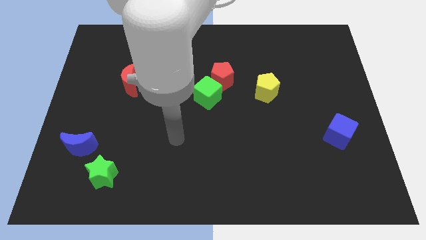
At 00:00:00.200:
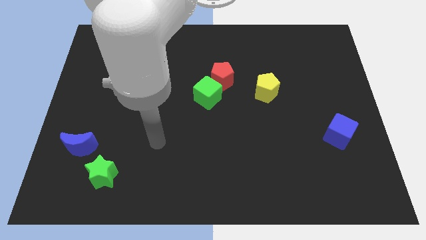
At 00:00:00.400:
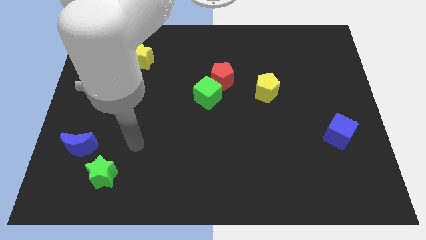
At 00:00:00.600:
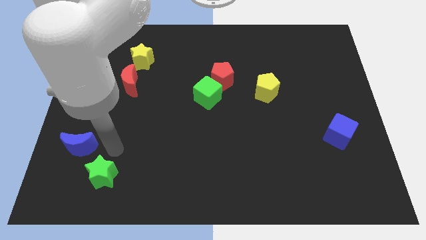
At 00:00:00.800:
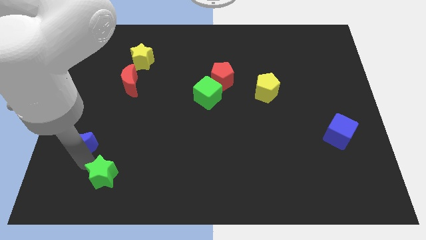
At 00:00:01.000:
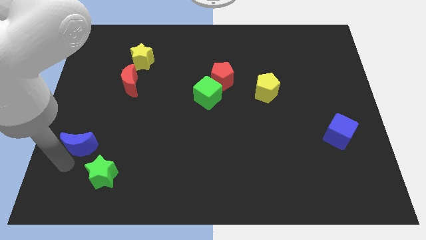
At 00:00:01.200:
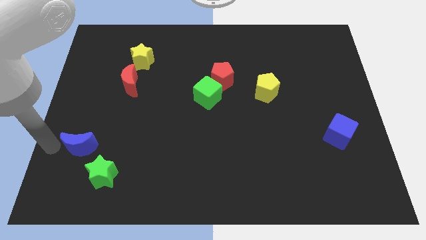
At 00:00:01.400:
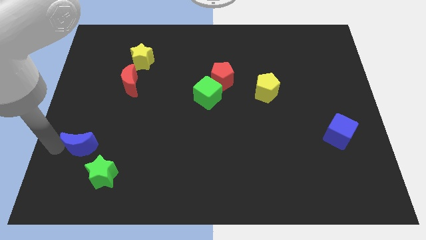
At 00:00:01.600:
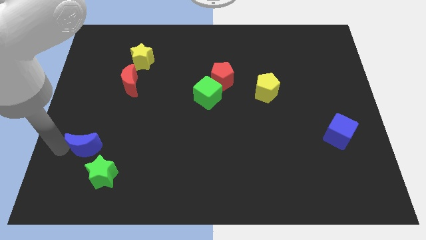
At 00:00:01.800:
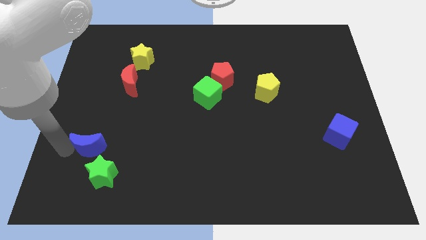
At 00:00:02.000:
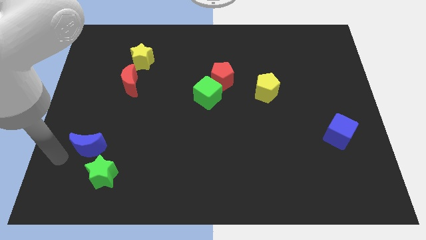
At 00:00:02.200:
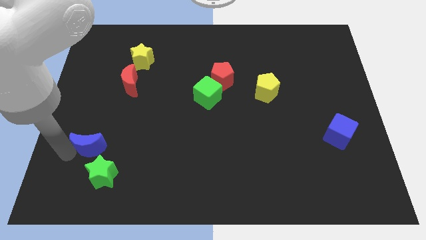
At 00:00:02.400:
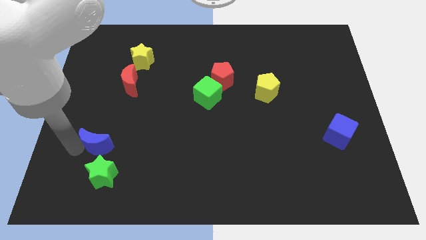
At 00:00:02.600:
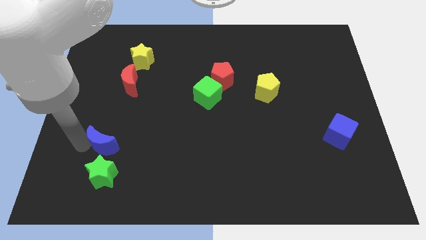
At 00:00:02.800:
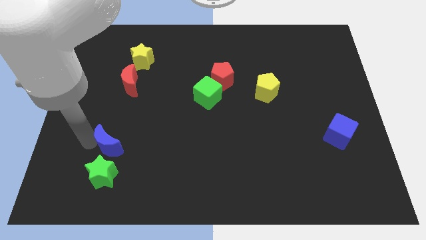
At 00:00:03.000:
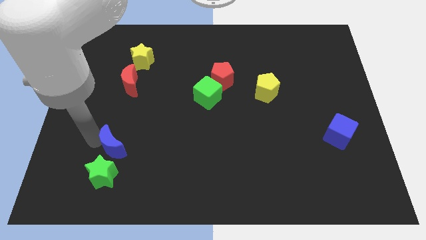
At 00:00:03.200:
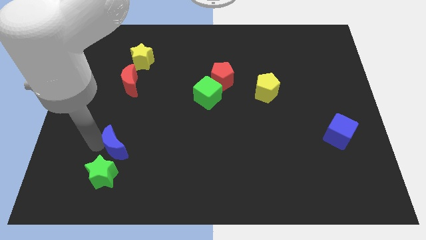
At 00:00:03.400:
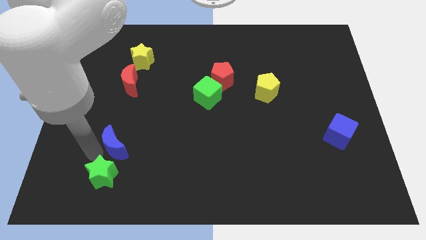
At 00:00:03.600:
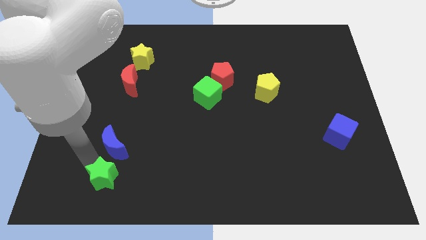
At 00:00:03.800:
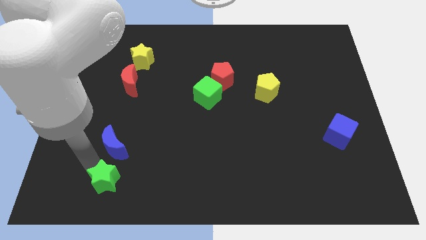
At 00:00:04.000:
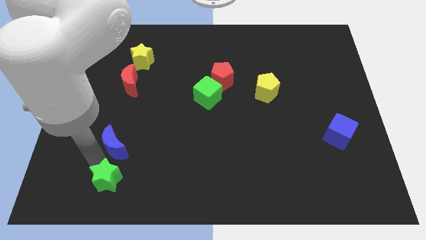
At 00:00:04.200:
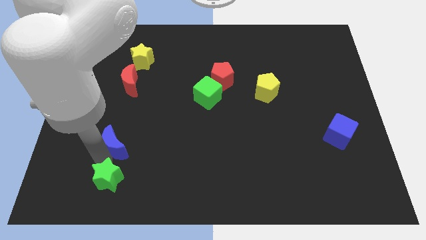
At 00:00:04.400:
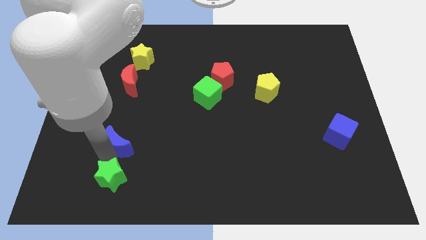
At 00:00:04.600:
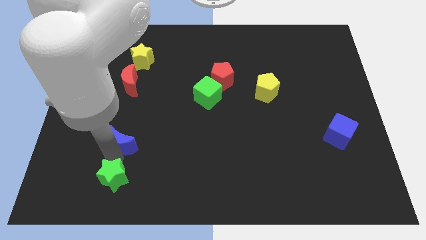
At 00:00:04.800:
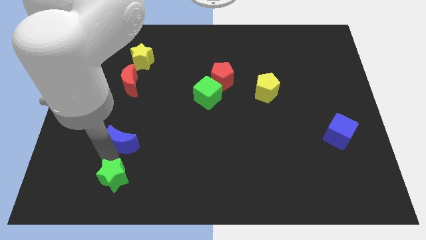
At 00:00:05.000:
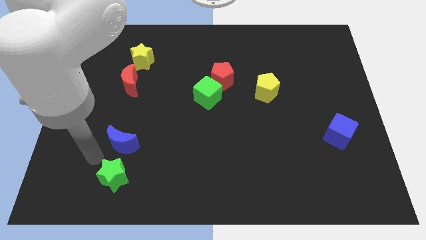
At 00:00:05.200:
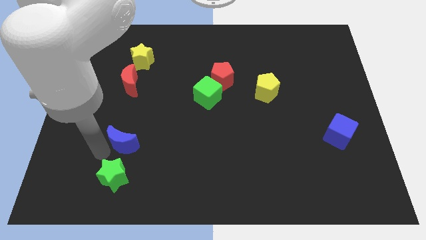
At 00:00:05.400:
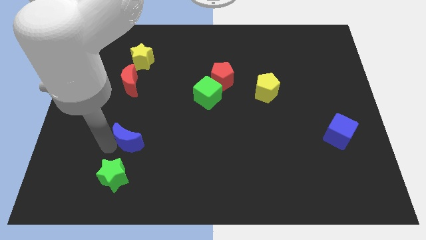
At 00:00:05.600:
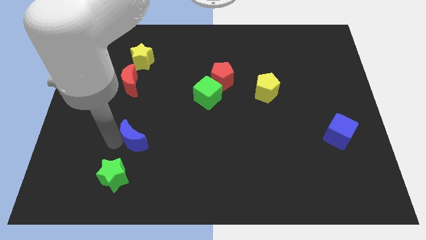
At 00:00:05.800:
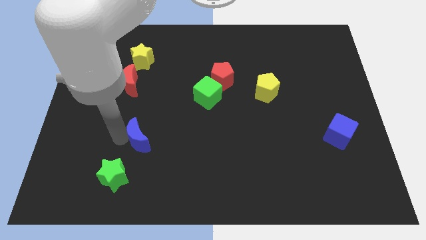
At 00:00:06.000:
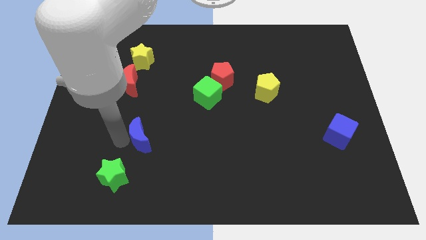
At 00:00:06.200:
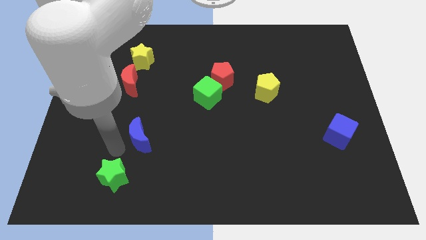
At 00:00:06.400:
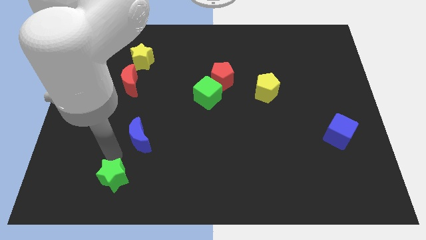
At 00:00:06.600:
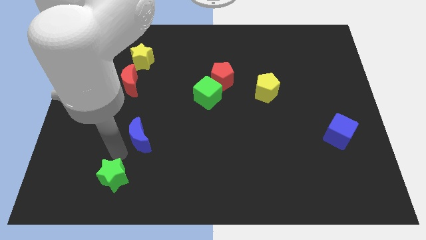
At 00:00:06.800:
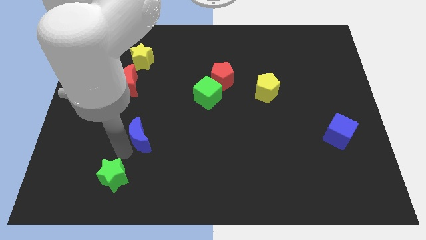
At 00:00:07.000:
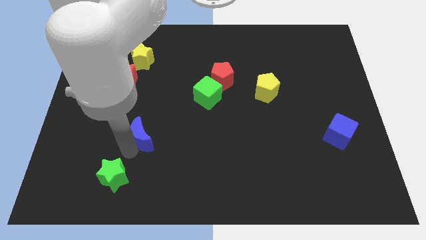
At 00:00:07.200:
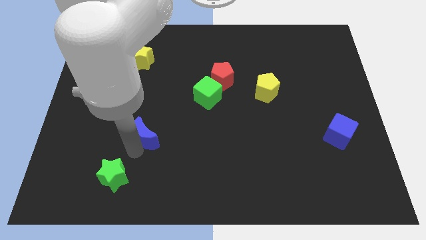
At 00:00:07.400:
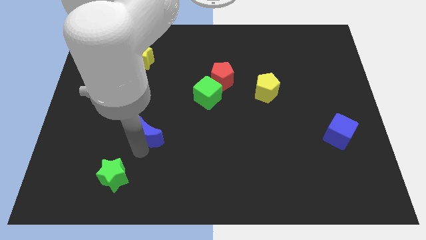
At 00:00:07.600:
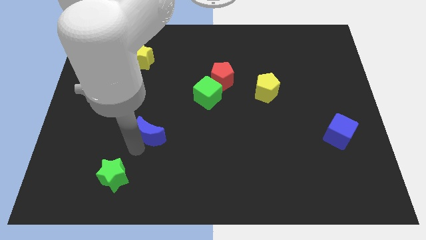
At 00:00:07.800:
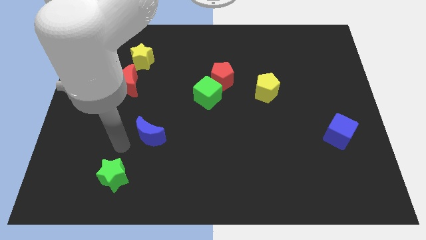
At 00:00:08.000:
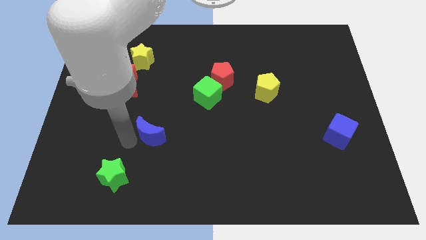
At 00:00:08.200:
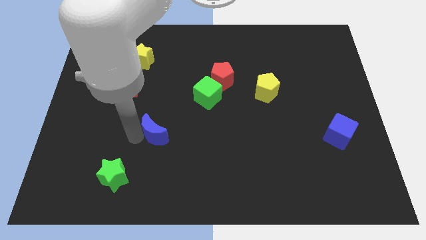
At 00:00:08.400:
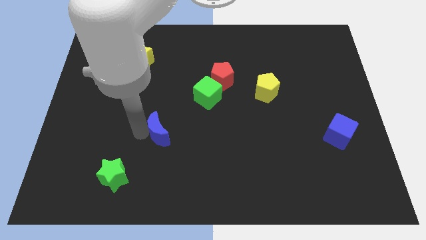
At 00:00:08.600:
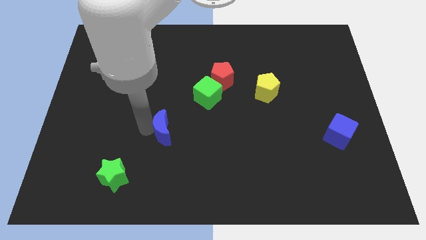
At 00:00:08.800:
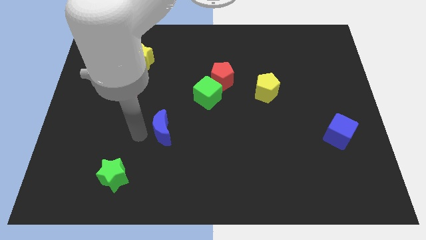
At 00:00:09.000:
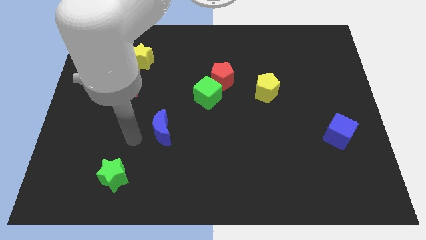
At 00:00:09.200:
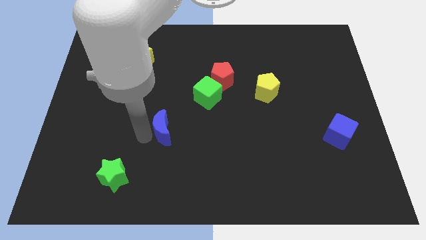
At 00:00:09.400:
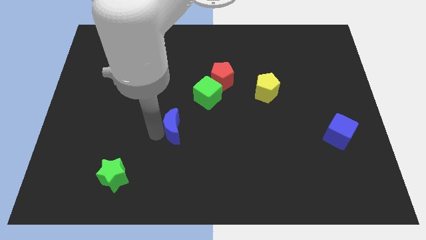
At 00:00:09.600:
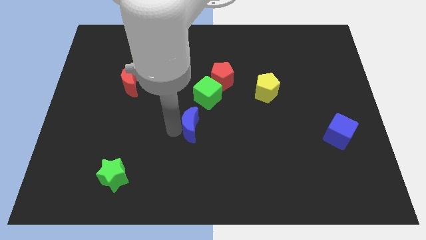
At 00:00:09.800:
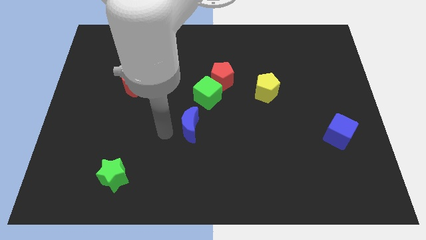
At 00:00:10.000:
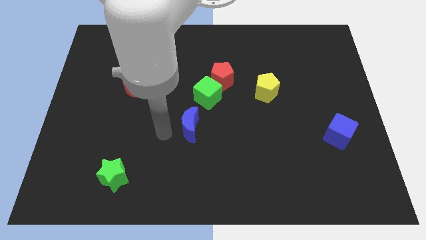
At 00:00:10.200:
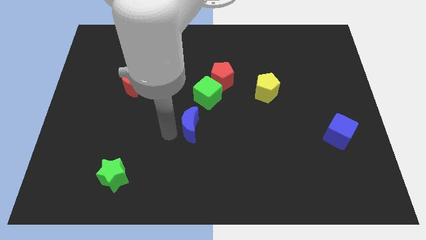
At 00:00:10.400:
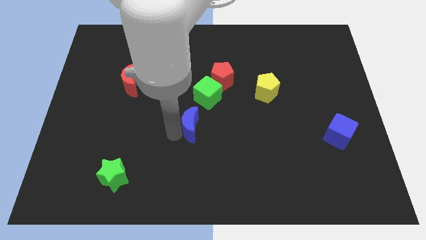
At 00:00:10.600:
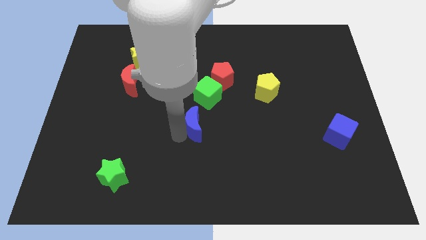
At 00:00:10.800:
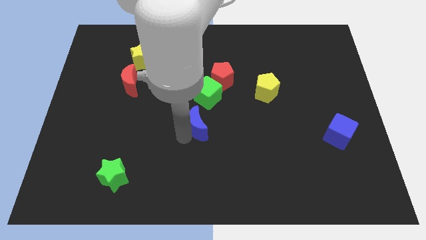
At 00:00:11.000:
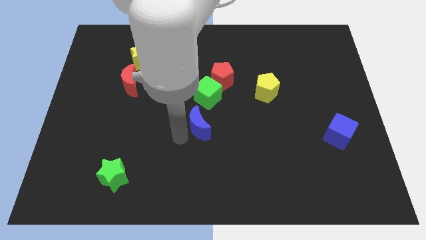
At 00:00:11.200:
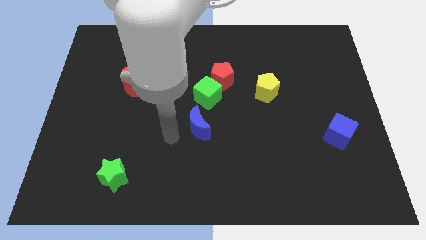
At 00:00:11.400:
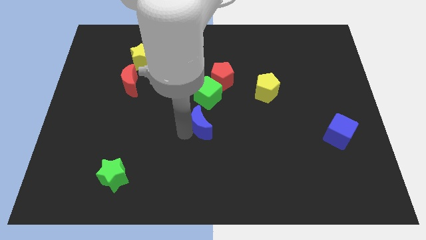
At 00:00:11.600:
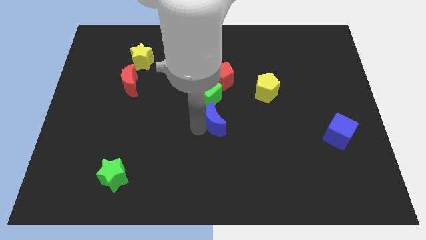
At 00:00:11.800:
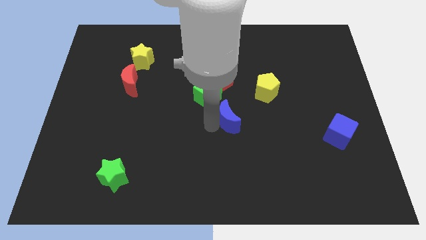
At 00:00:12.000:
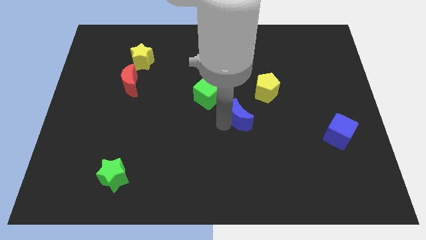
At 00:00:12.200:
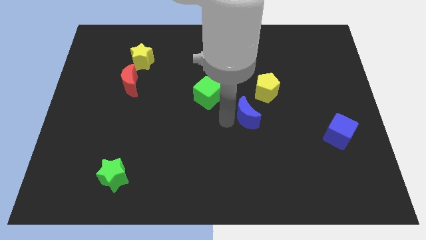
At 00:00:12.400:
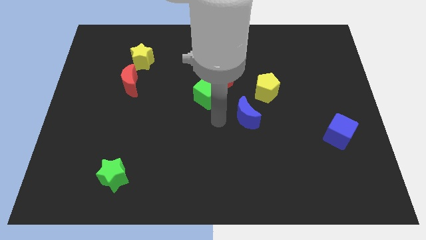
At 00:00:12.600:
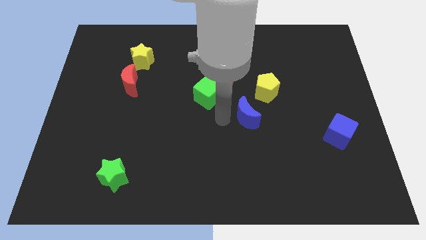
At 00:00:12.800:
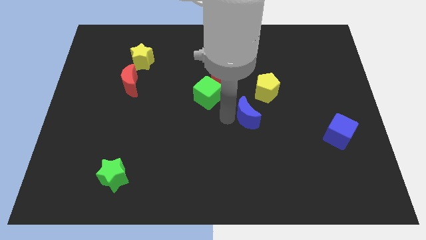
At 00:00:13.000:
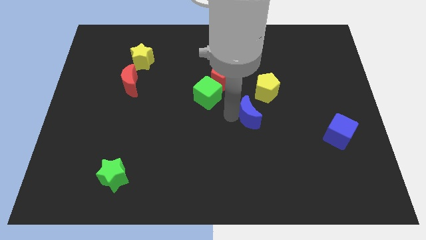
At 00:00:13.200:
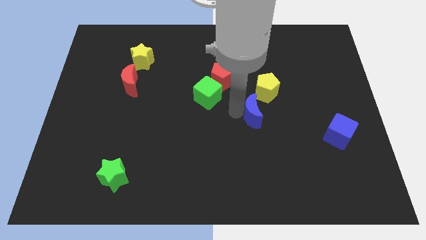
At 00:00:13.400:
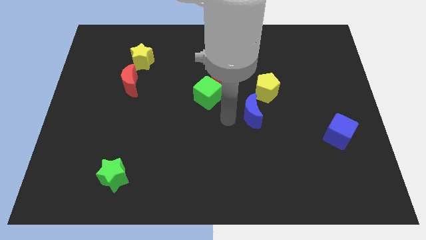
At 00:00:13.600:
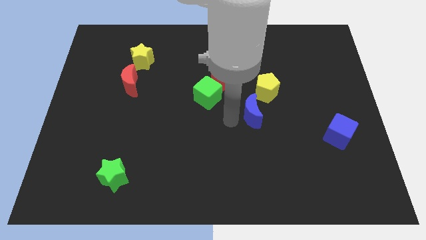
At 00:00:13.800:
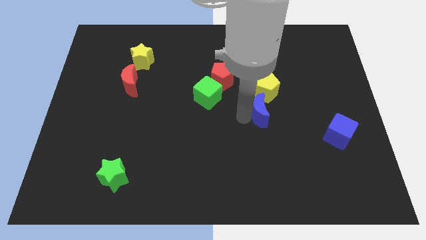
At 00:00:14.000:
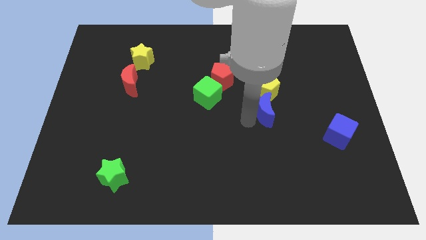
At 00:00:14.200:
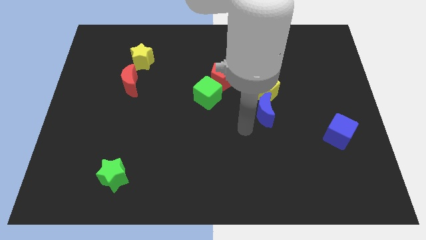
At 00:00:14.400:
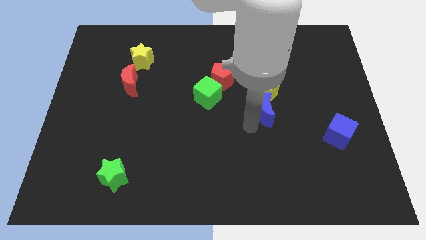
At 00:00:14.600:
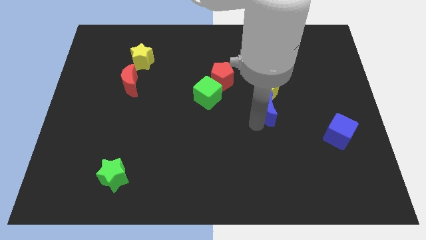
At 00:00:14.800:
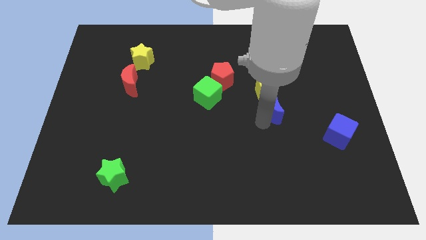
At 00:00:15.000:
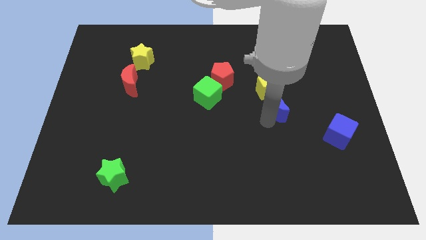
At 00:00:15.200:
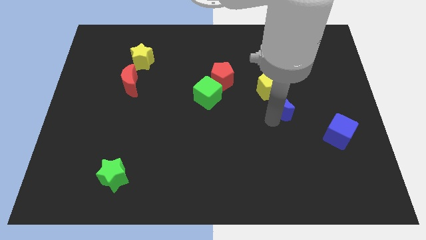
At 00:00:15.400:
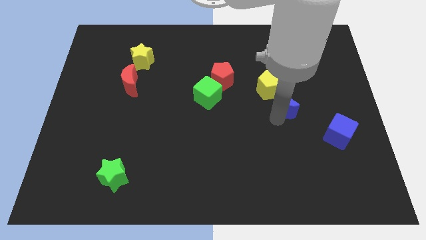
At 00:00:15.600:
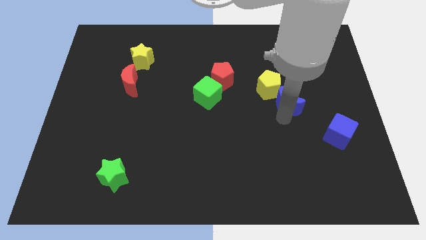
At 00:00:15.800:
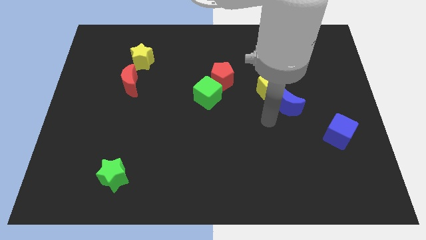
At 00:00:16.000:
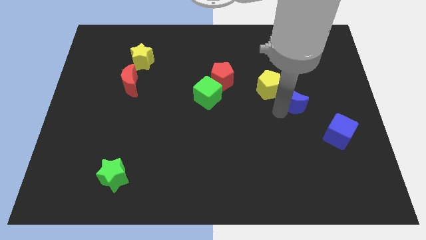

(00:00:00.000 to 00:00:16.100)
put the blue moon just right of the yellow pentagon
